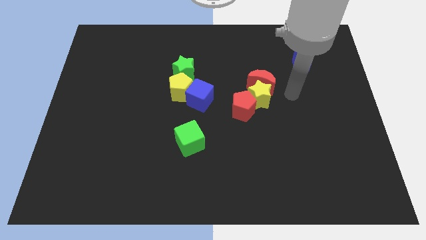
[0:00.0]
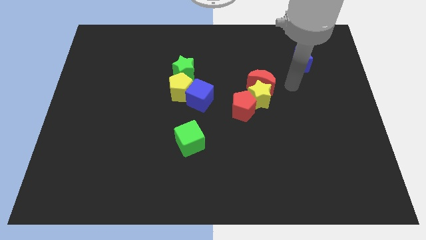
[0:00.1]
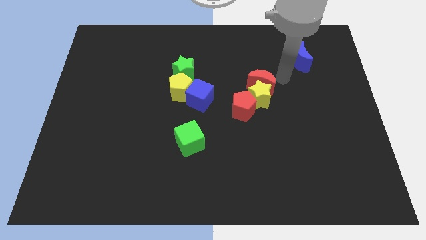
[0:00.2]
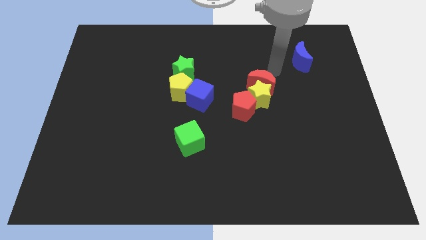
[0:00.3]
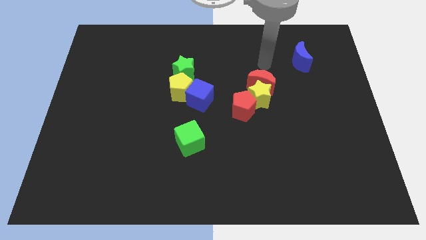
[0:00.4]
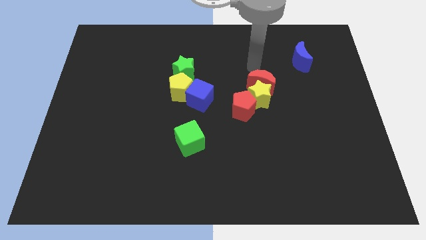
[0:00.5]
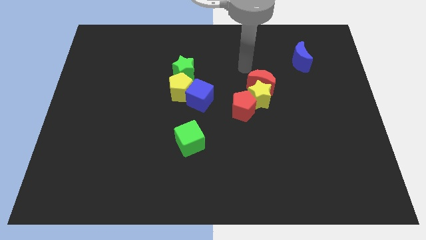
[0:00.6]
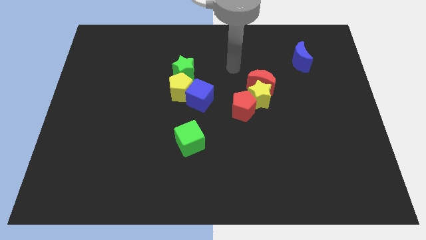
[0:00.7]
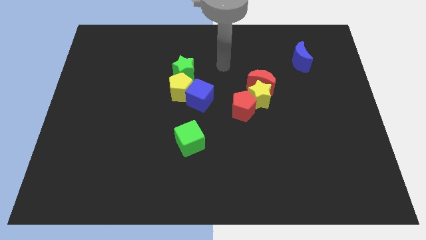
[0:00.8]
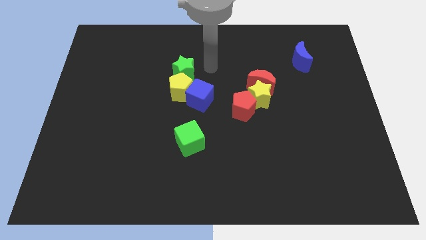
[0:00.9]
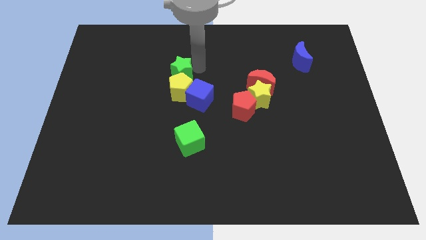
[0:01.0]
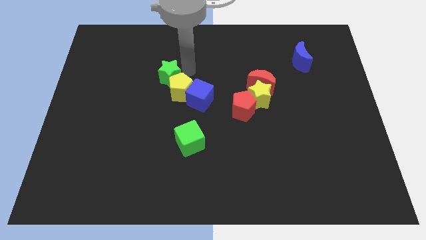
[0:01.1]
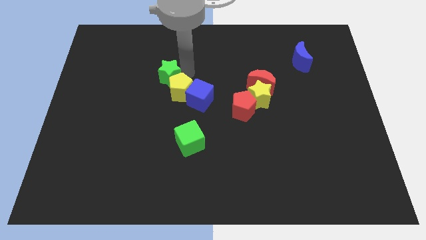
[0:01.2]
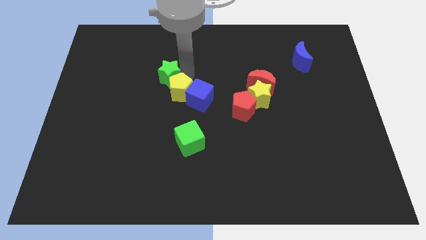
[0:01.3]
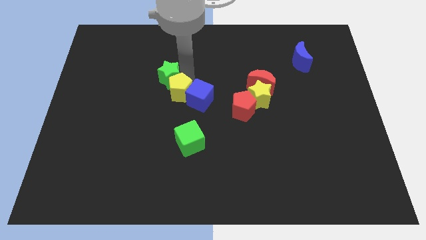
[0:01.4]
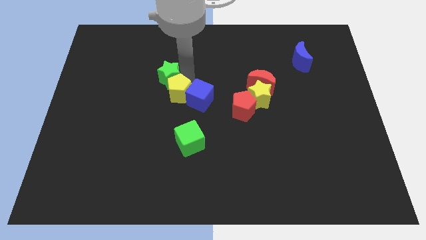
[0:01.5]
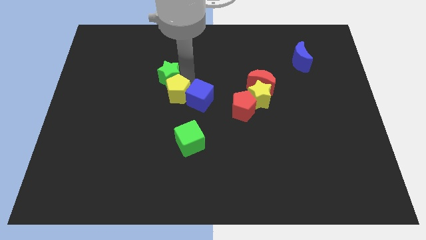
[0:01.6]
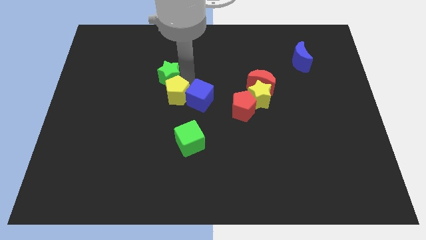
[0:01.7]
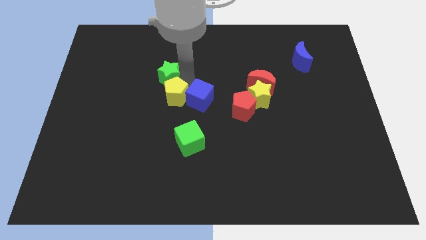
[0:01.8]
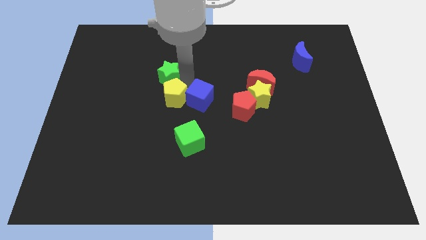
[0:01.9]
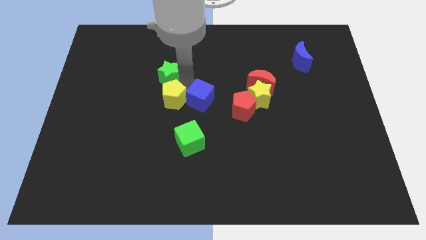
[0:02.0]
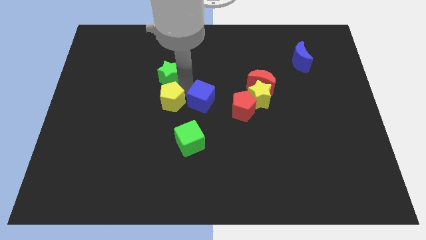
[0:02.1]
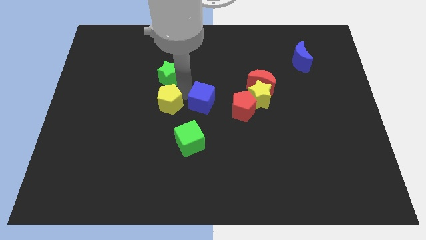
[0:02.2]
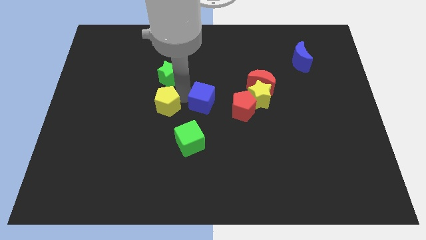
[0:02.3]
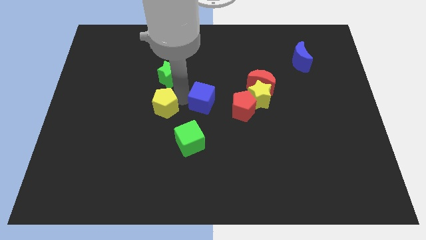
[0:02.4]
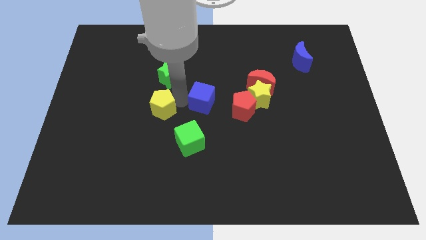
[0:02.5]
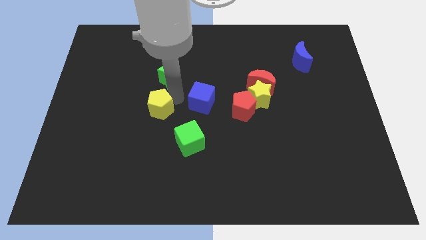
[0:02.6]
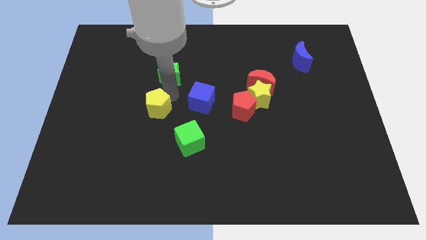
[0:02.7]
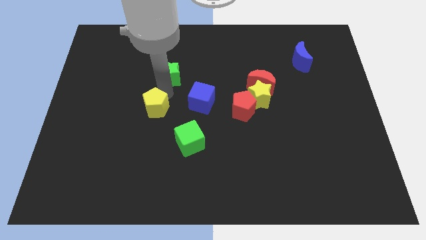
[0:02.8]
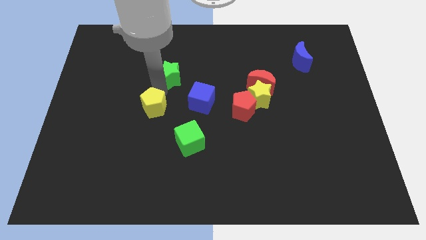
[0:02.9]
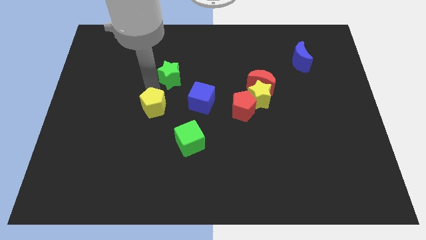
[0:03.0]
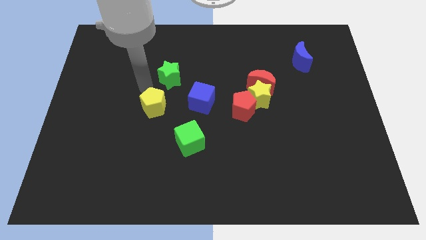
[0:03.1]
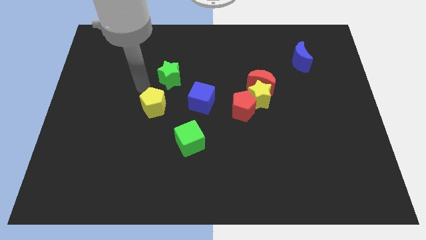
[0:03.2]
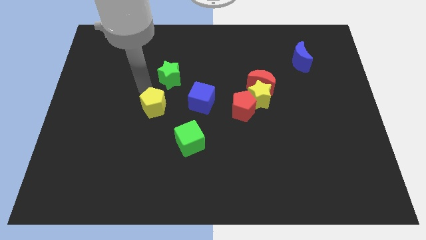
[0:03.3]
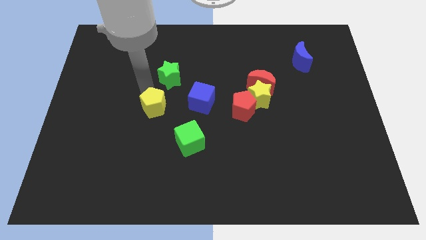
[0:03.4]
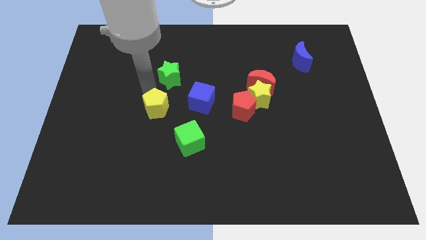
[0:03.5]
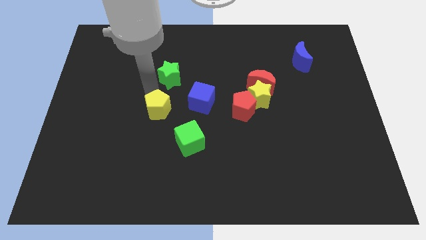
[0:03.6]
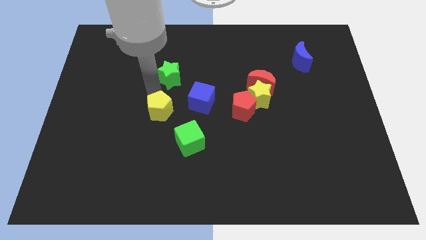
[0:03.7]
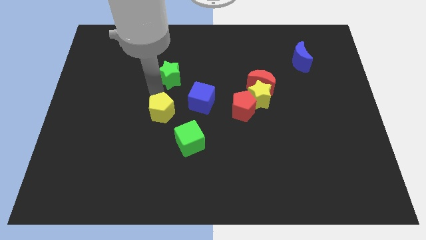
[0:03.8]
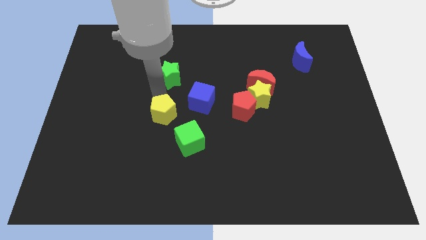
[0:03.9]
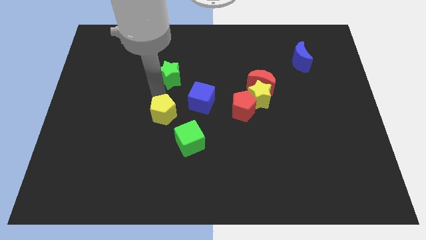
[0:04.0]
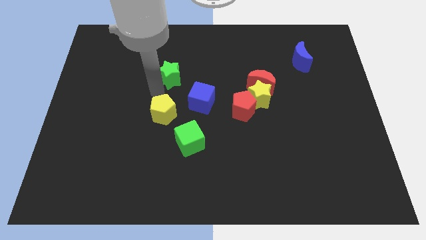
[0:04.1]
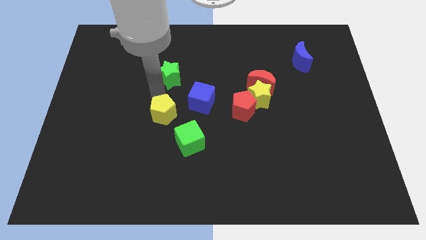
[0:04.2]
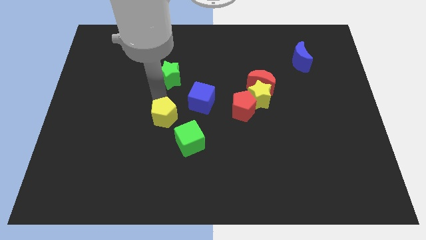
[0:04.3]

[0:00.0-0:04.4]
slide the yellow pentagon somewhat downwards

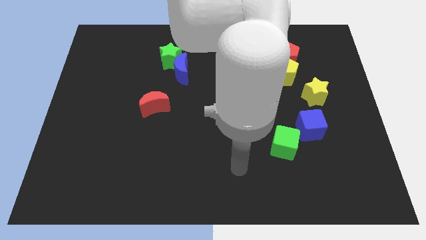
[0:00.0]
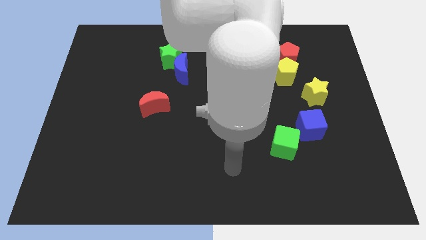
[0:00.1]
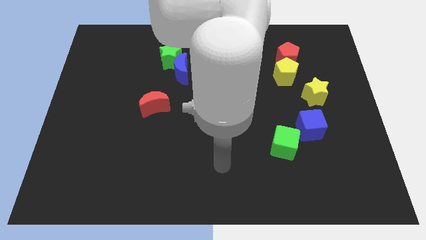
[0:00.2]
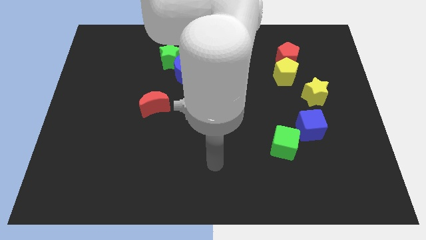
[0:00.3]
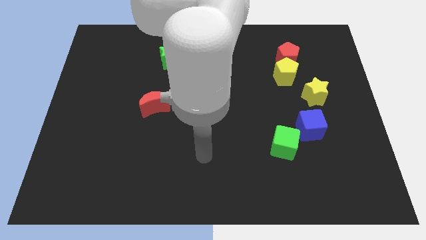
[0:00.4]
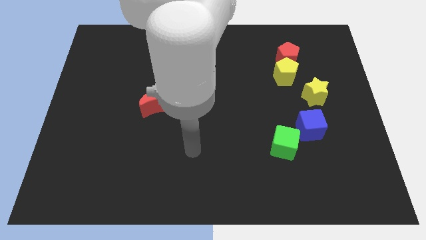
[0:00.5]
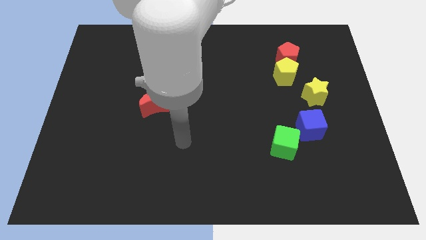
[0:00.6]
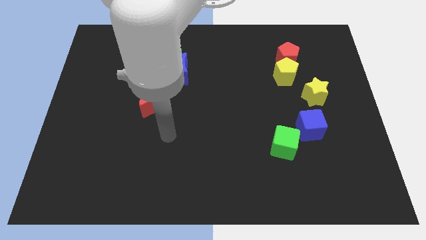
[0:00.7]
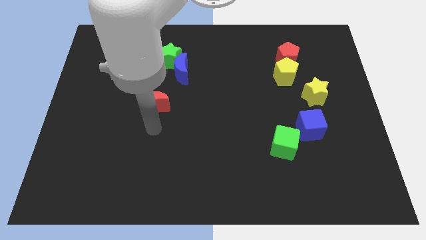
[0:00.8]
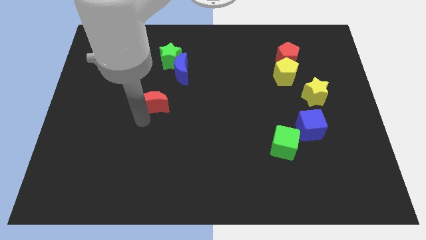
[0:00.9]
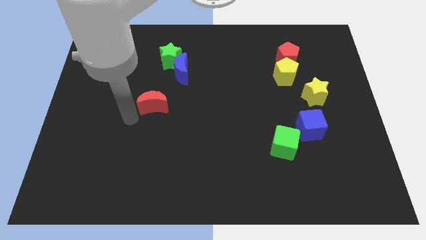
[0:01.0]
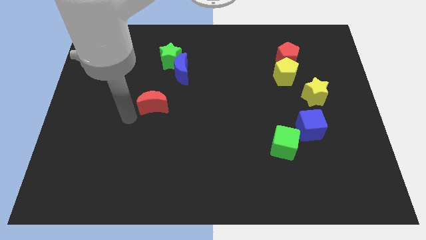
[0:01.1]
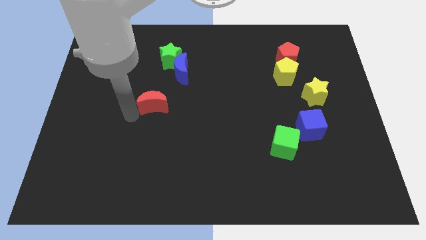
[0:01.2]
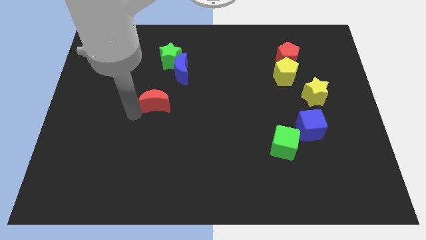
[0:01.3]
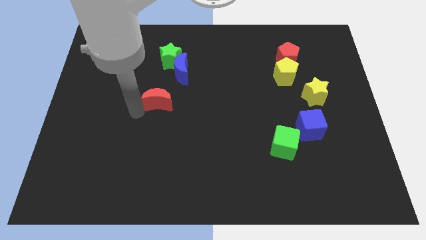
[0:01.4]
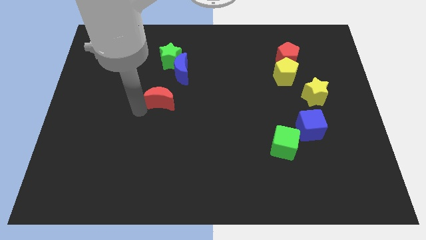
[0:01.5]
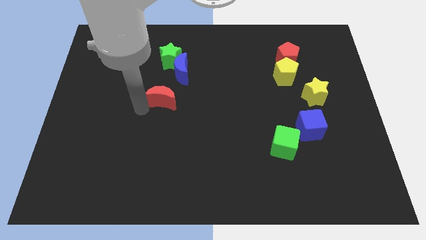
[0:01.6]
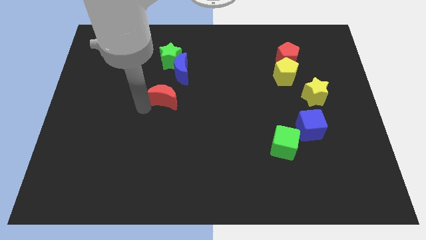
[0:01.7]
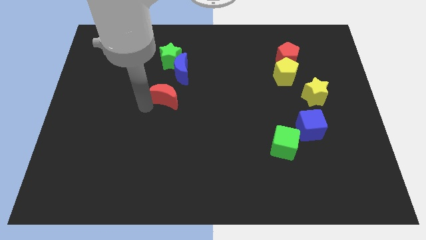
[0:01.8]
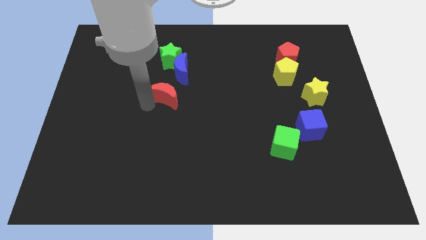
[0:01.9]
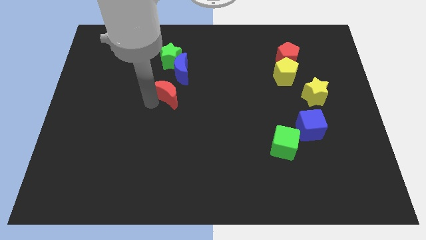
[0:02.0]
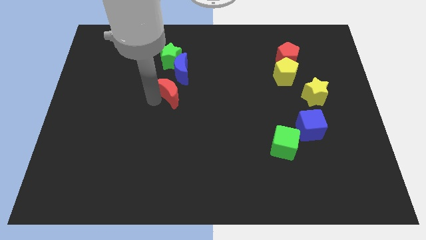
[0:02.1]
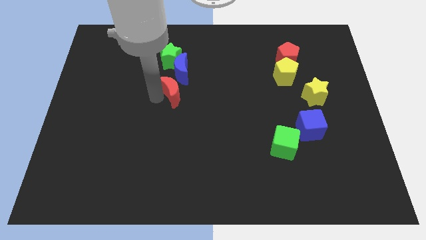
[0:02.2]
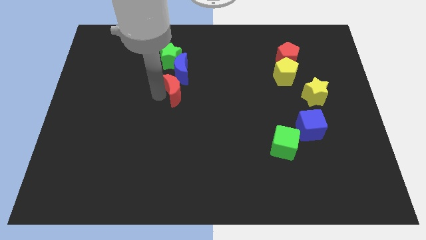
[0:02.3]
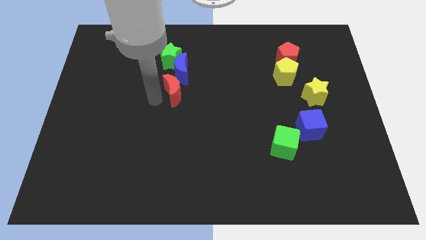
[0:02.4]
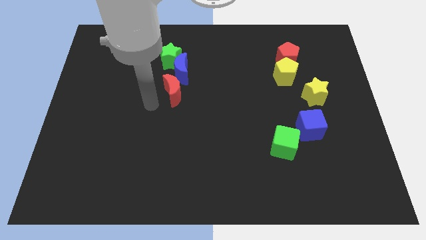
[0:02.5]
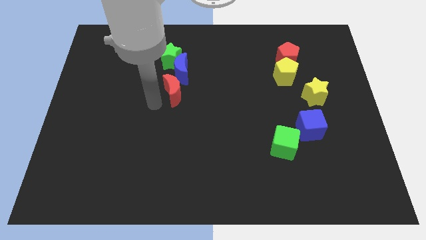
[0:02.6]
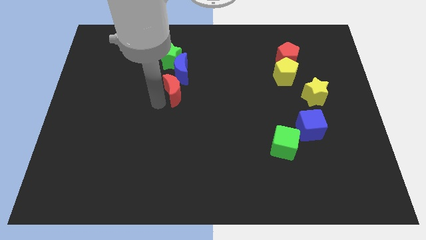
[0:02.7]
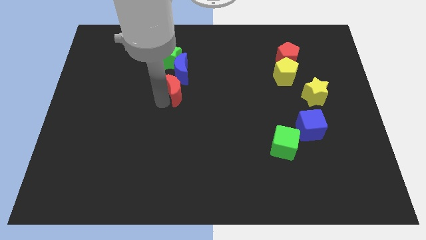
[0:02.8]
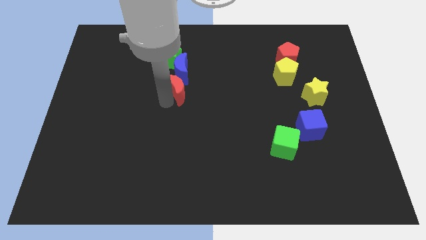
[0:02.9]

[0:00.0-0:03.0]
slide the red moon somewhat up and then to the right

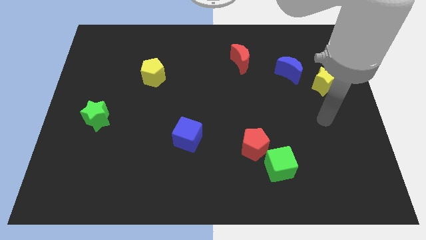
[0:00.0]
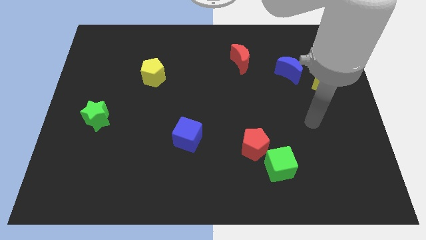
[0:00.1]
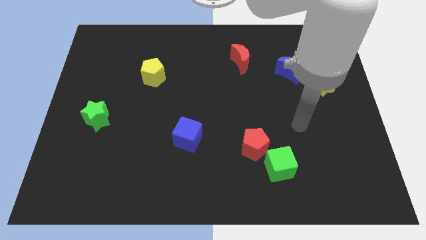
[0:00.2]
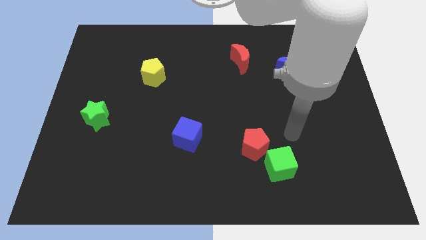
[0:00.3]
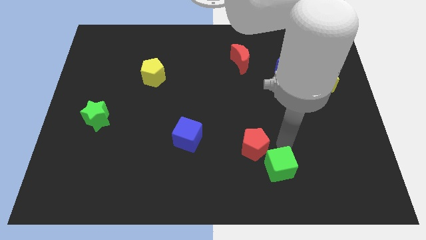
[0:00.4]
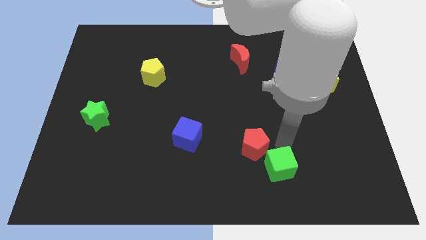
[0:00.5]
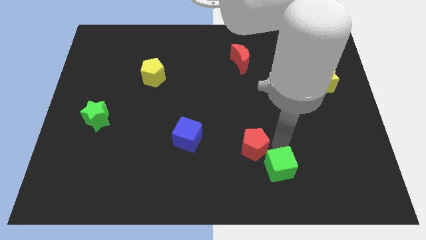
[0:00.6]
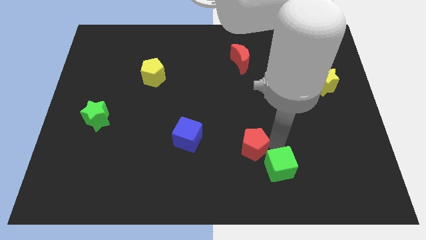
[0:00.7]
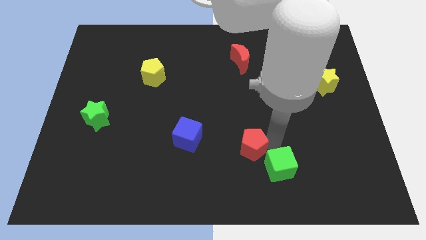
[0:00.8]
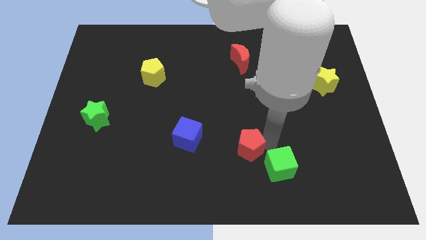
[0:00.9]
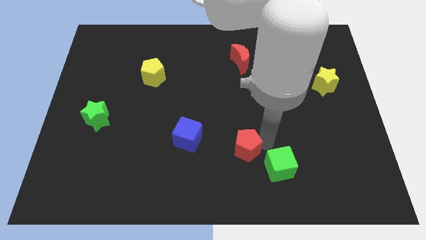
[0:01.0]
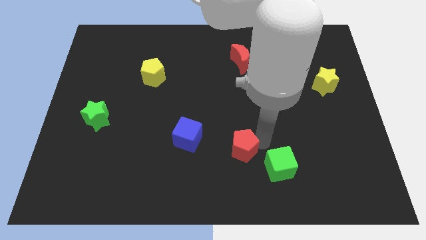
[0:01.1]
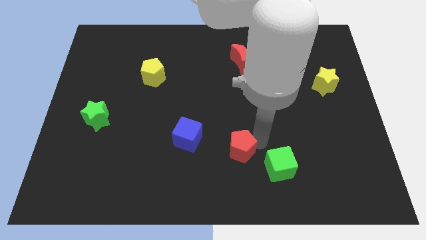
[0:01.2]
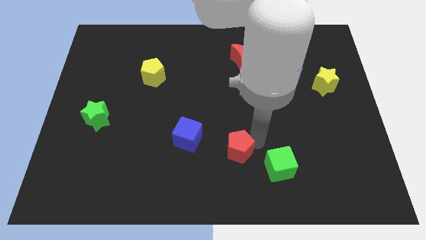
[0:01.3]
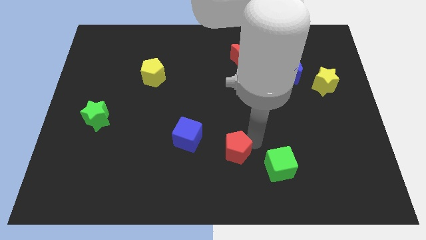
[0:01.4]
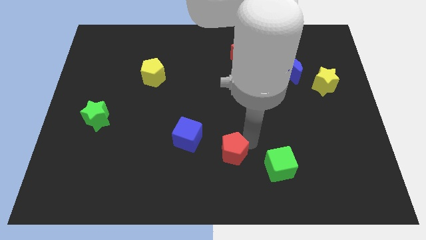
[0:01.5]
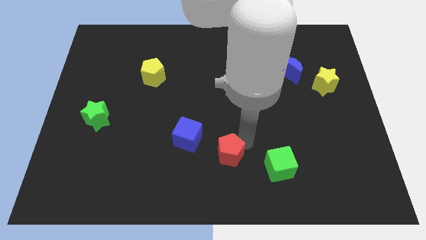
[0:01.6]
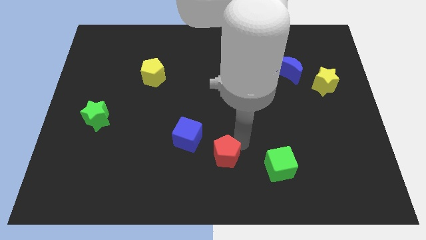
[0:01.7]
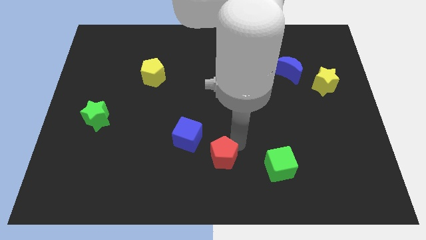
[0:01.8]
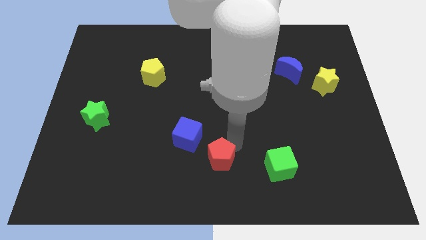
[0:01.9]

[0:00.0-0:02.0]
slide the red pentagon left a little bit
